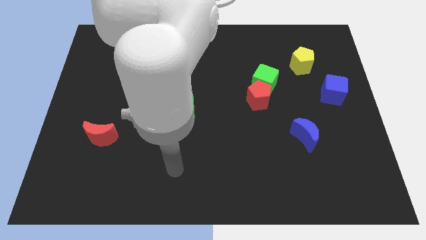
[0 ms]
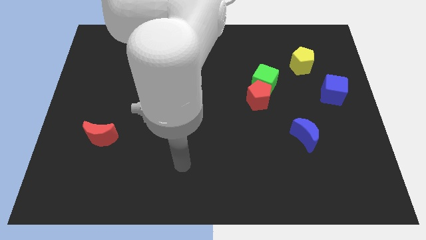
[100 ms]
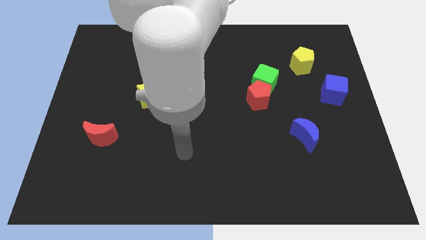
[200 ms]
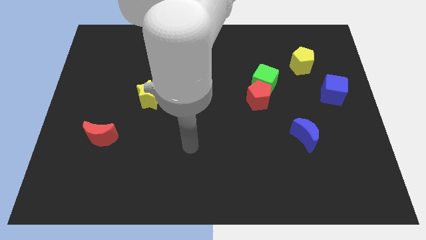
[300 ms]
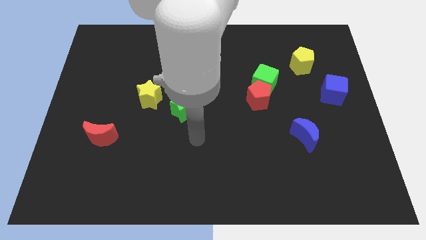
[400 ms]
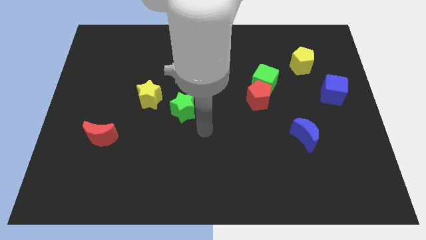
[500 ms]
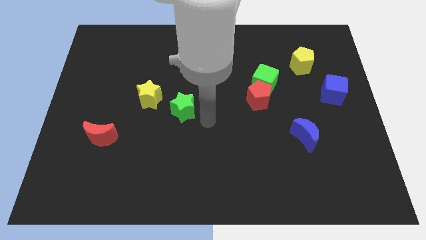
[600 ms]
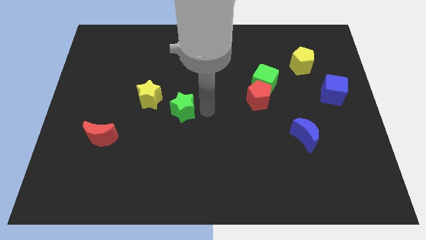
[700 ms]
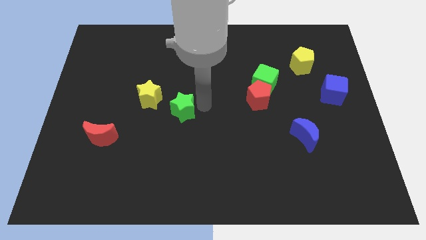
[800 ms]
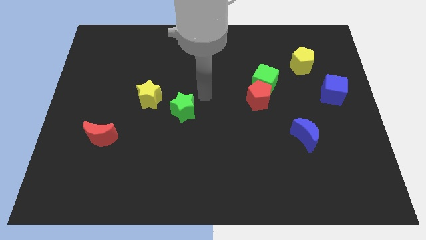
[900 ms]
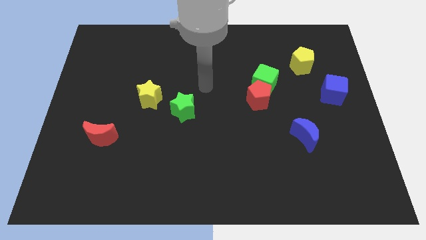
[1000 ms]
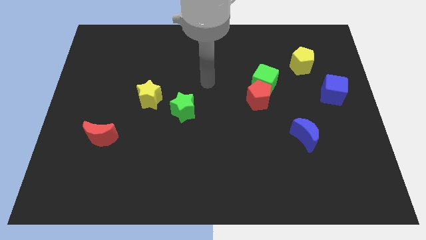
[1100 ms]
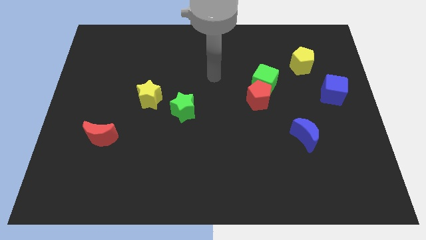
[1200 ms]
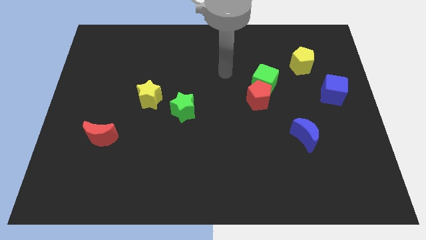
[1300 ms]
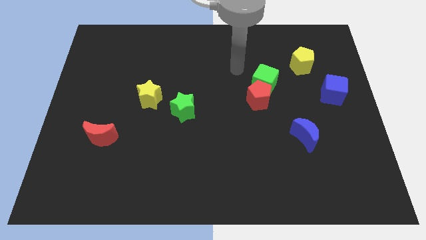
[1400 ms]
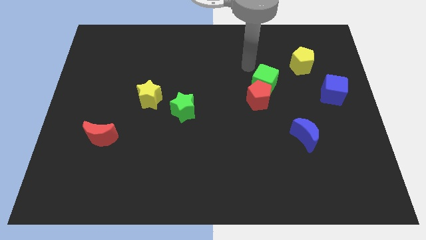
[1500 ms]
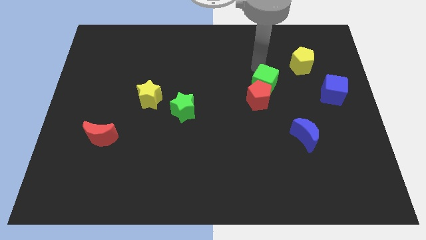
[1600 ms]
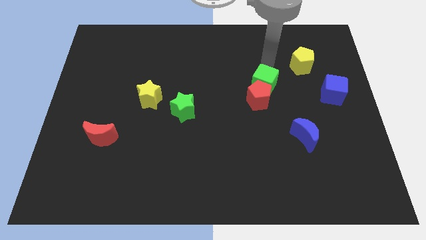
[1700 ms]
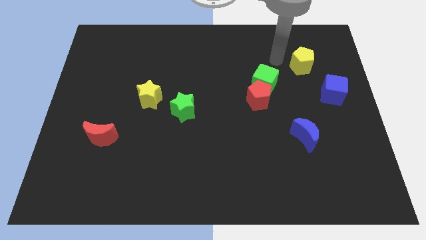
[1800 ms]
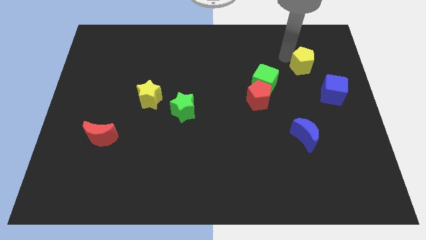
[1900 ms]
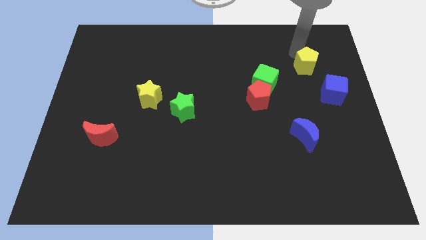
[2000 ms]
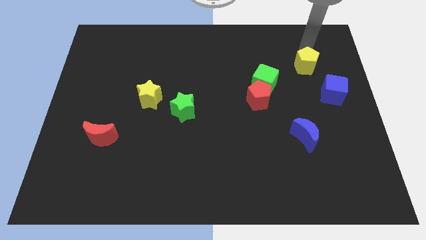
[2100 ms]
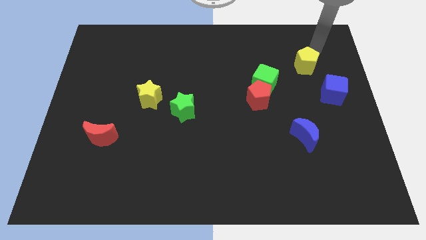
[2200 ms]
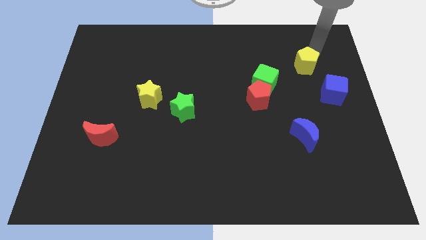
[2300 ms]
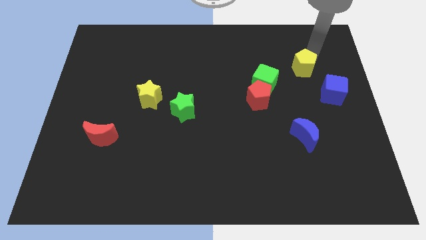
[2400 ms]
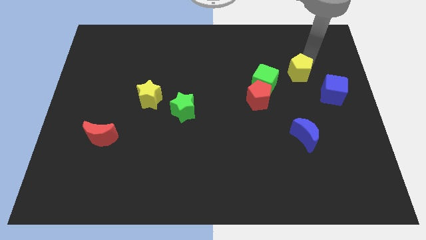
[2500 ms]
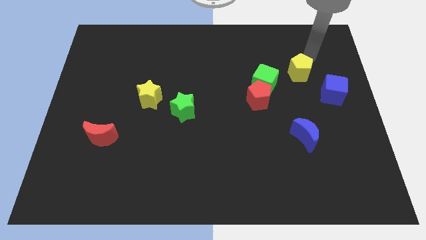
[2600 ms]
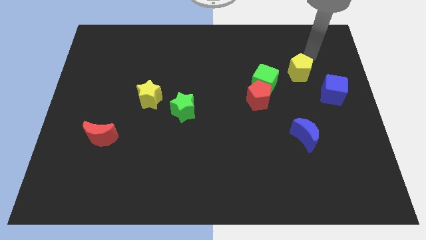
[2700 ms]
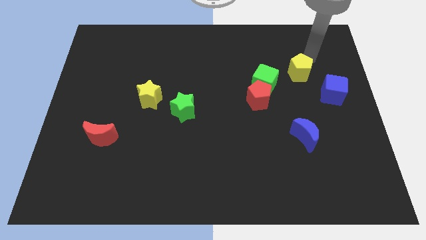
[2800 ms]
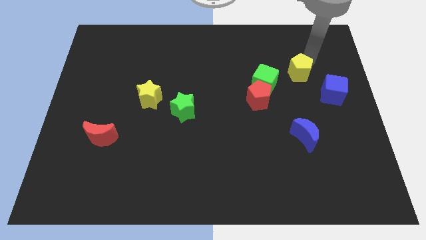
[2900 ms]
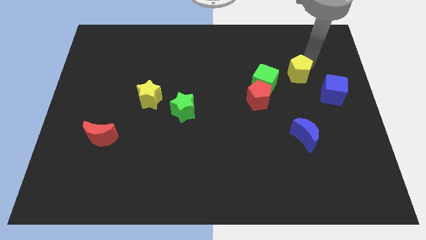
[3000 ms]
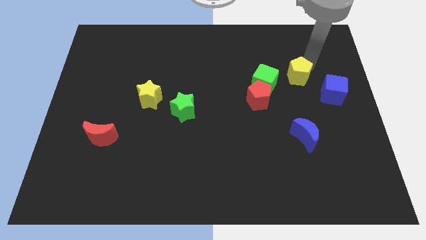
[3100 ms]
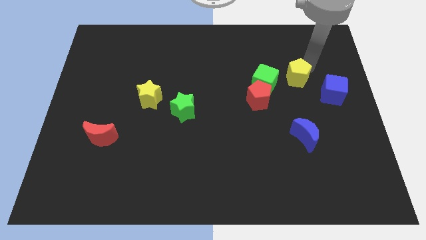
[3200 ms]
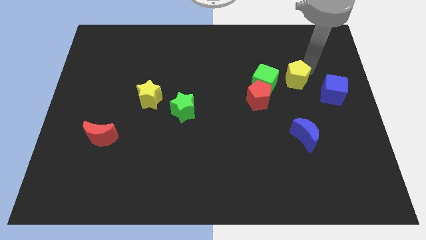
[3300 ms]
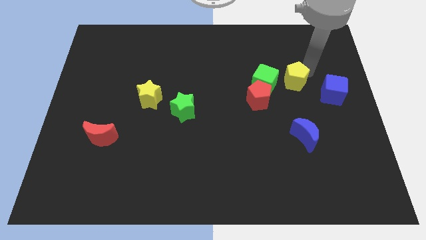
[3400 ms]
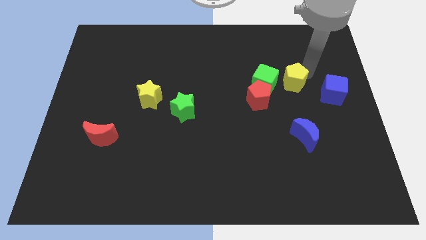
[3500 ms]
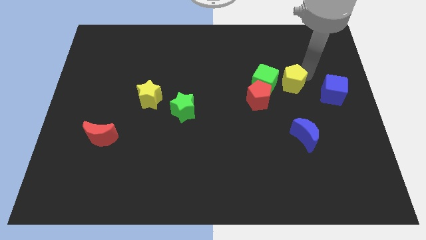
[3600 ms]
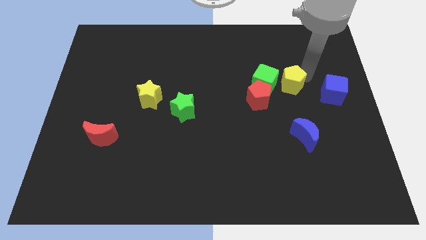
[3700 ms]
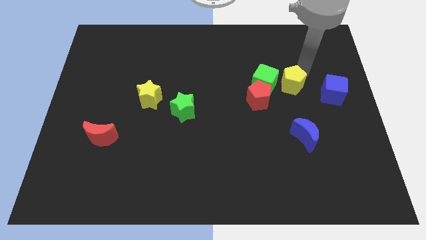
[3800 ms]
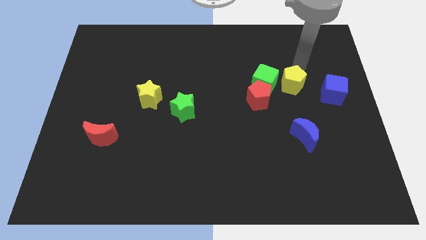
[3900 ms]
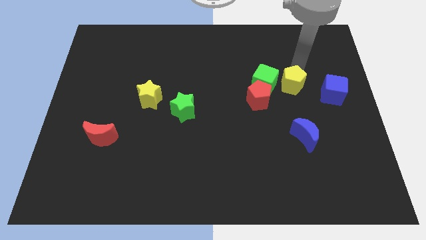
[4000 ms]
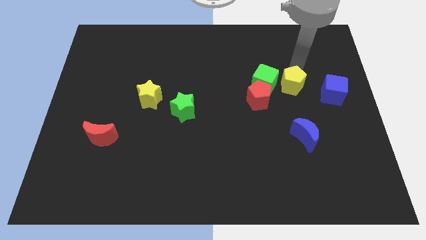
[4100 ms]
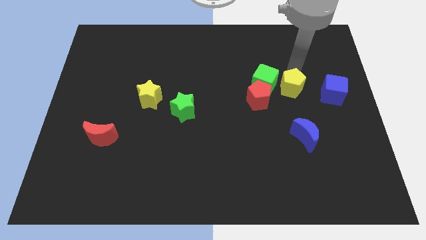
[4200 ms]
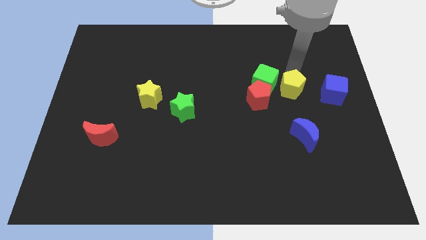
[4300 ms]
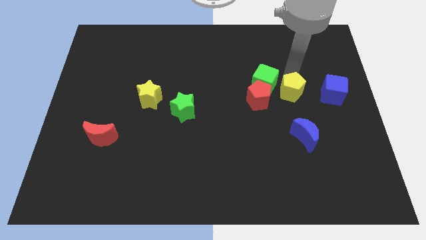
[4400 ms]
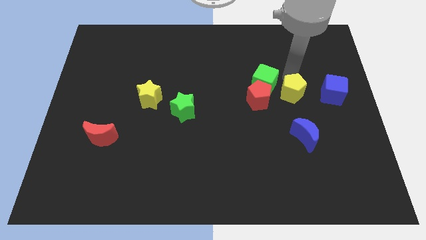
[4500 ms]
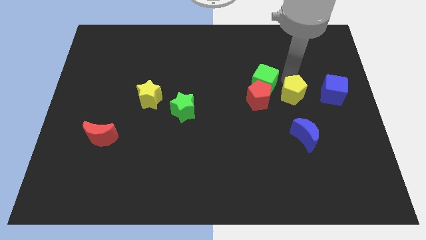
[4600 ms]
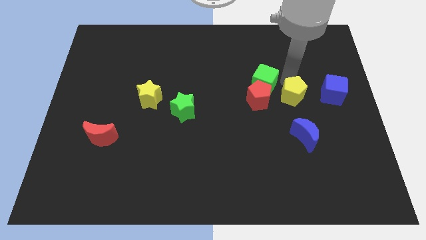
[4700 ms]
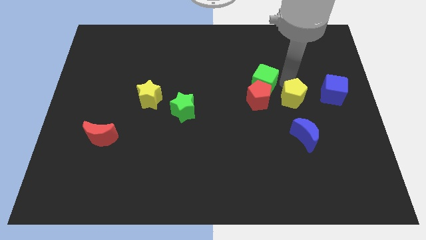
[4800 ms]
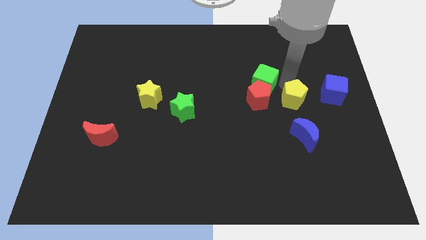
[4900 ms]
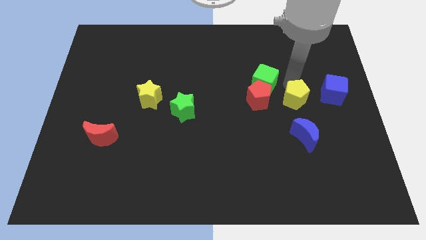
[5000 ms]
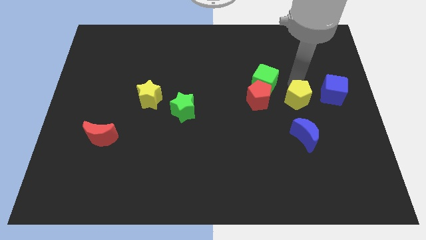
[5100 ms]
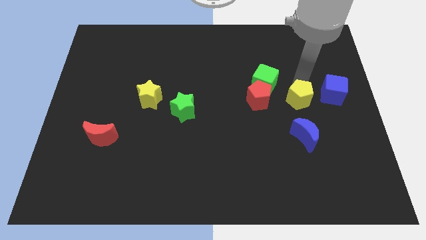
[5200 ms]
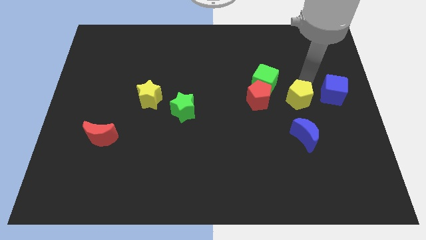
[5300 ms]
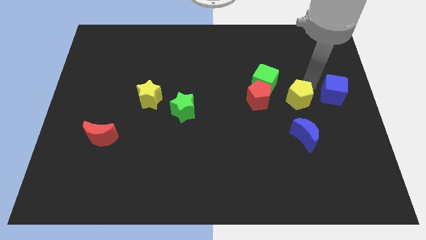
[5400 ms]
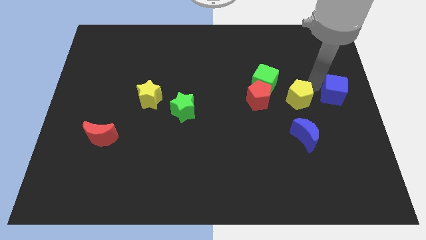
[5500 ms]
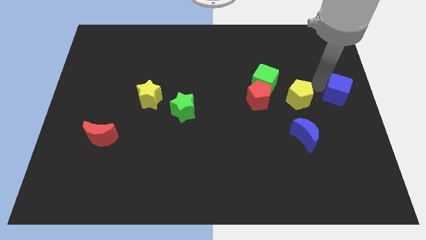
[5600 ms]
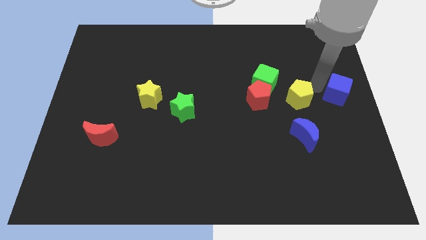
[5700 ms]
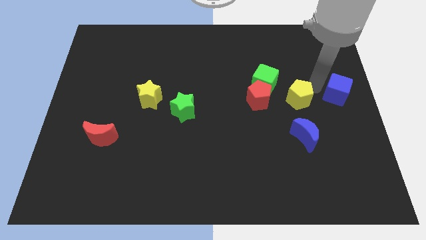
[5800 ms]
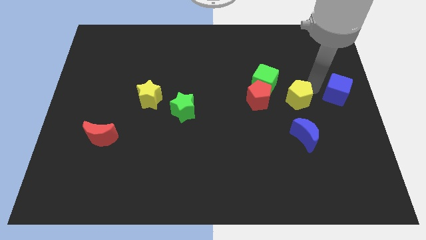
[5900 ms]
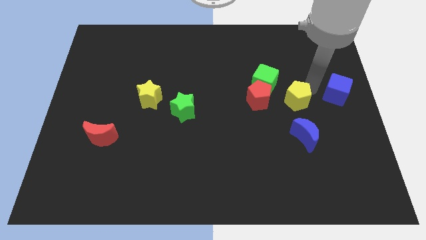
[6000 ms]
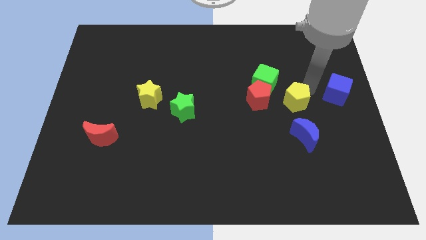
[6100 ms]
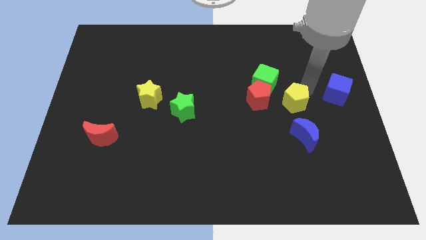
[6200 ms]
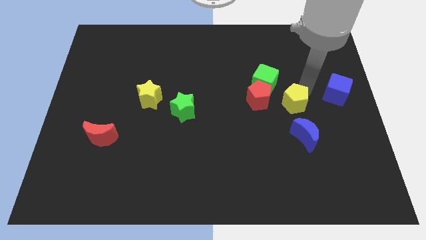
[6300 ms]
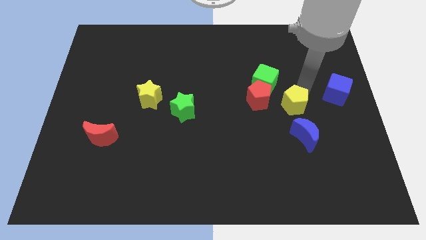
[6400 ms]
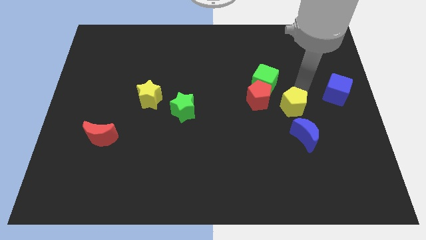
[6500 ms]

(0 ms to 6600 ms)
put the yellow pentagon to the top left side of the blue moon
